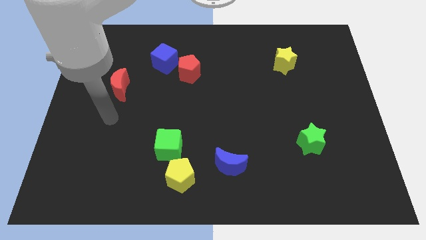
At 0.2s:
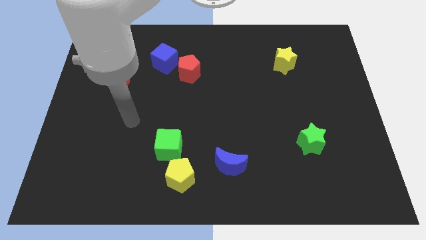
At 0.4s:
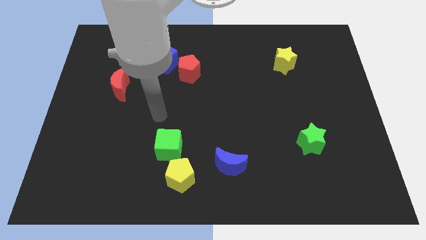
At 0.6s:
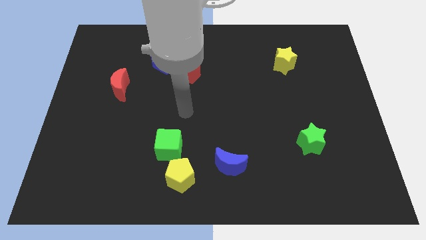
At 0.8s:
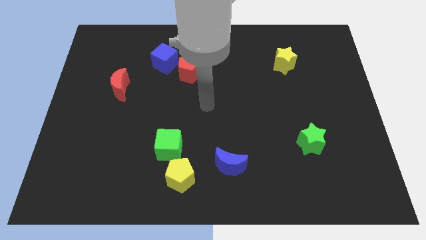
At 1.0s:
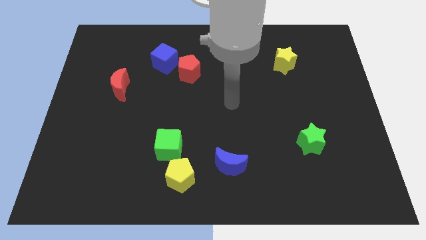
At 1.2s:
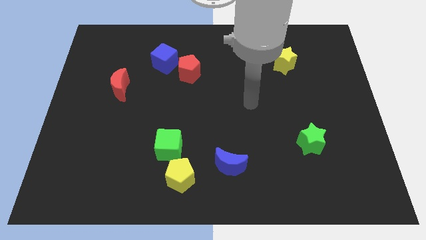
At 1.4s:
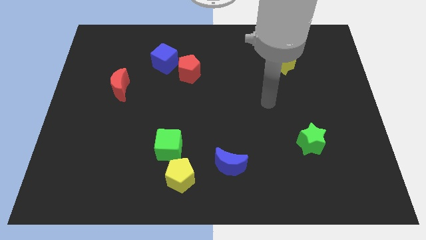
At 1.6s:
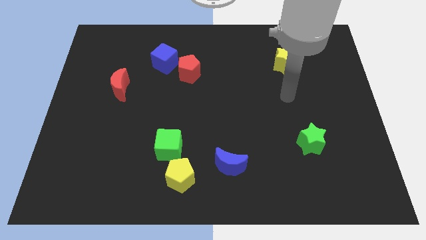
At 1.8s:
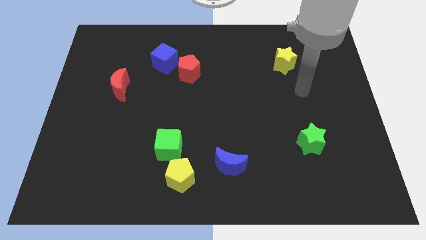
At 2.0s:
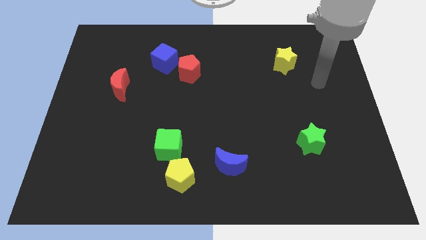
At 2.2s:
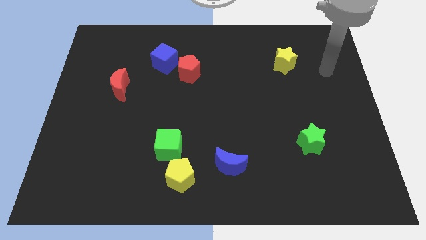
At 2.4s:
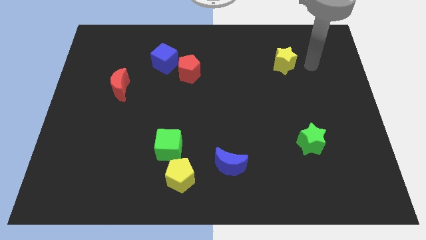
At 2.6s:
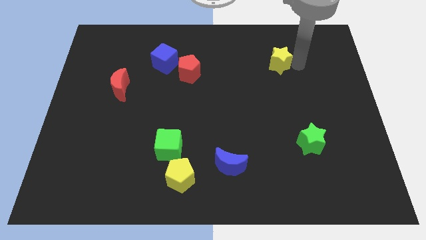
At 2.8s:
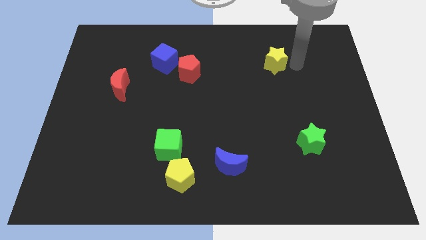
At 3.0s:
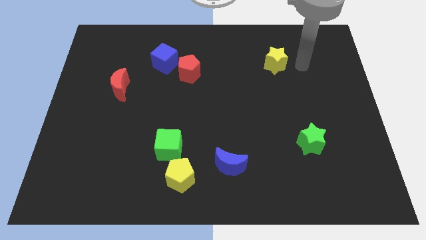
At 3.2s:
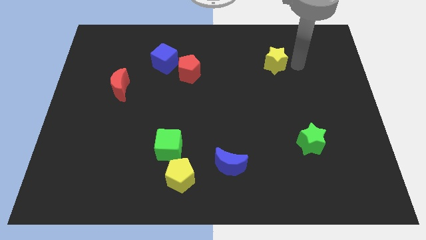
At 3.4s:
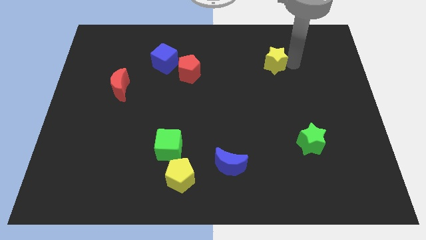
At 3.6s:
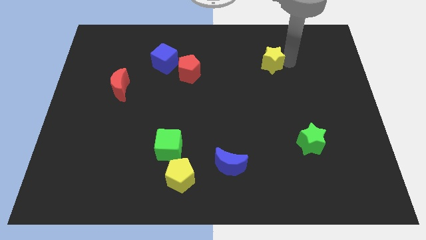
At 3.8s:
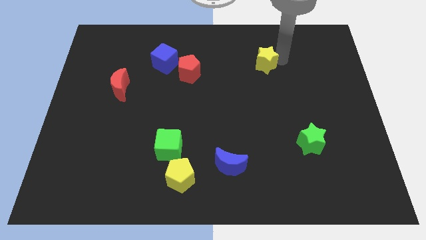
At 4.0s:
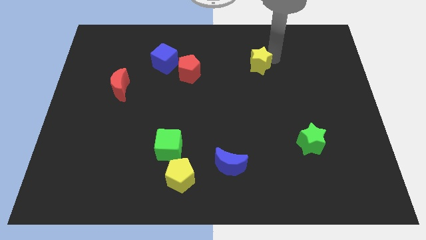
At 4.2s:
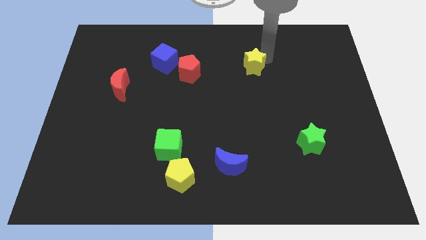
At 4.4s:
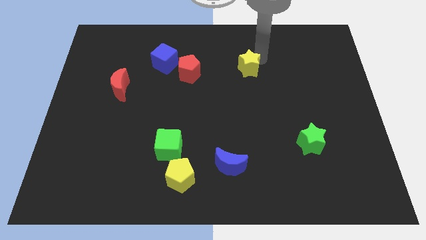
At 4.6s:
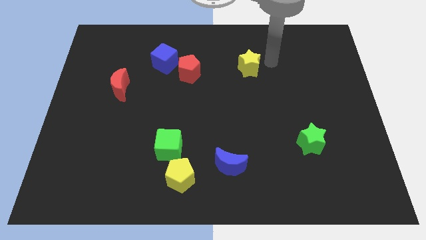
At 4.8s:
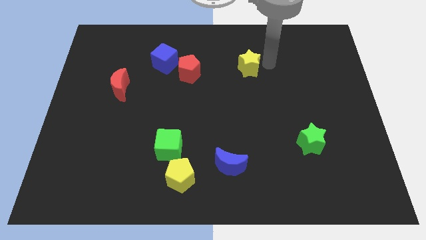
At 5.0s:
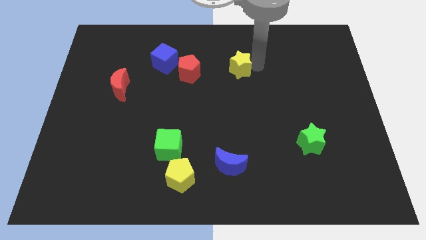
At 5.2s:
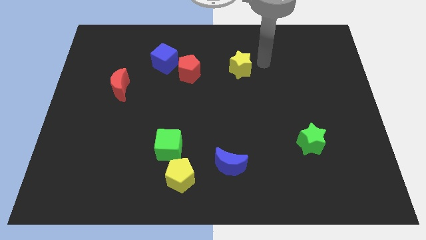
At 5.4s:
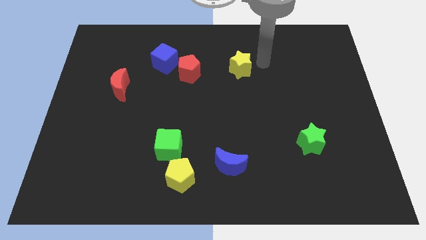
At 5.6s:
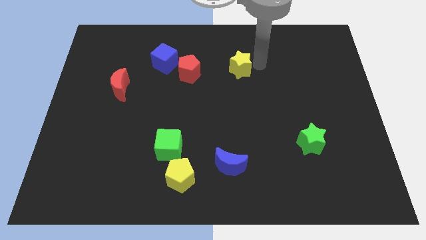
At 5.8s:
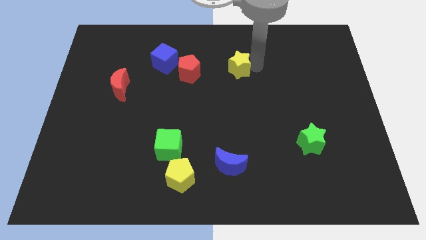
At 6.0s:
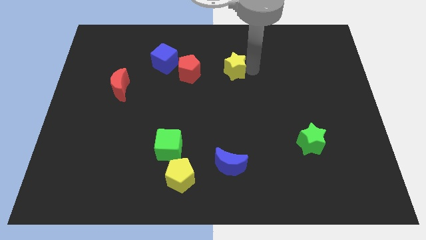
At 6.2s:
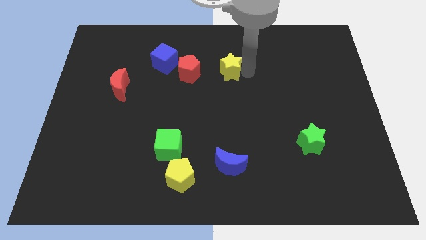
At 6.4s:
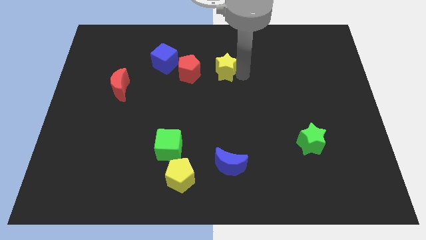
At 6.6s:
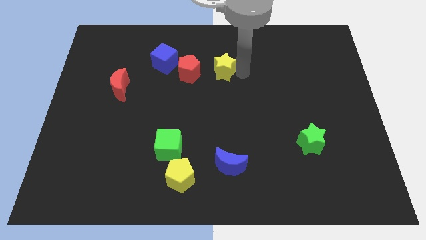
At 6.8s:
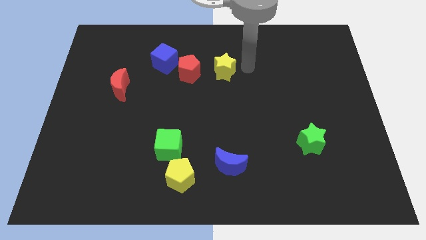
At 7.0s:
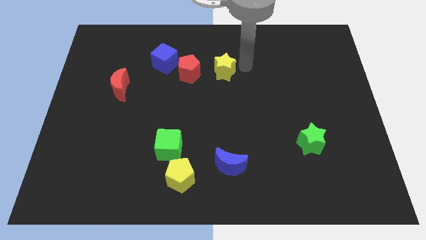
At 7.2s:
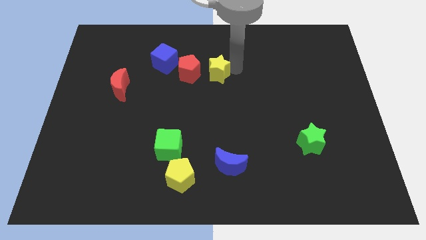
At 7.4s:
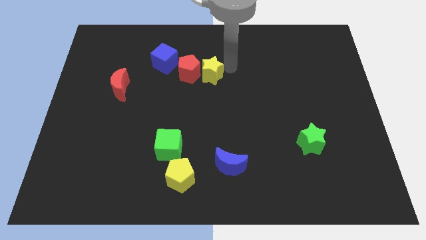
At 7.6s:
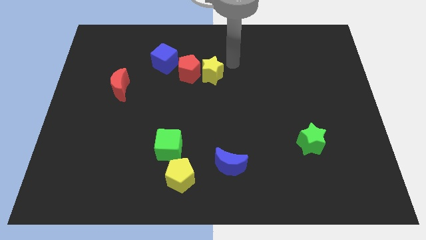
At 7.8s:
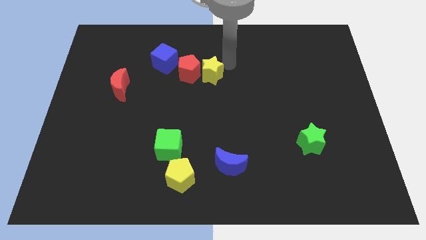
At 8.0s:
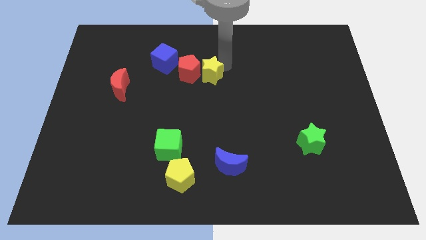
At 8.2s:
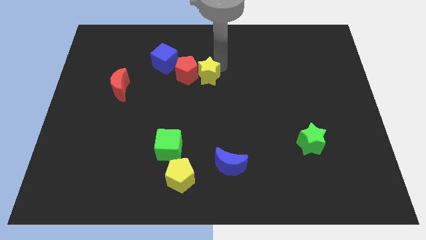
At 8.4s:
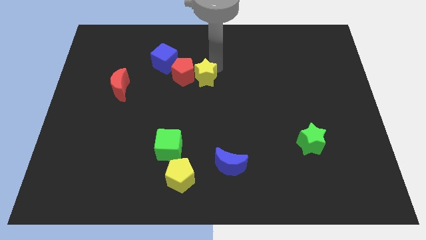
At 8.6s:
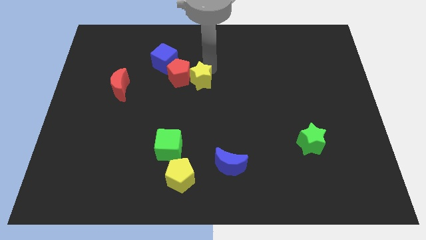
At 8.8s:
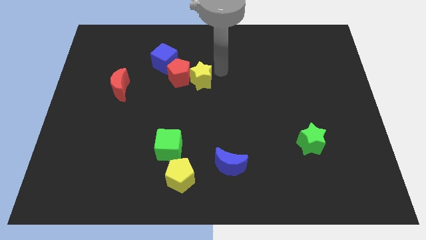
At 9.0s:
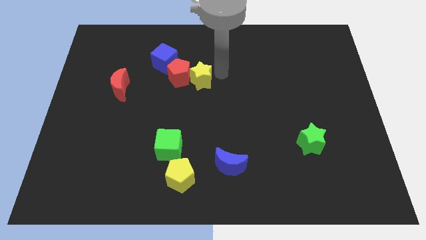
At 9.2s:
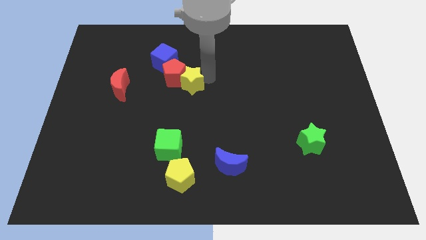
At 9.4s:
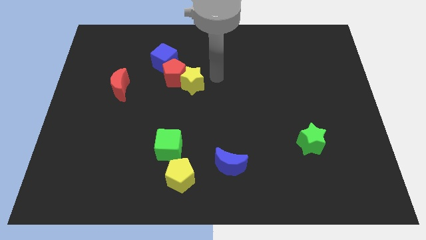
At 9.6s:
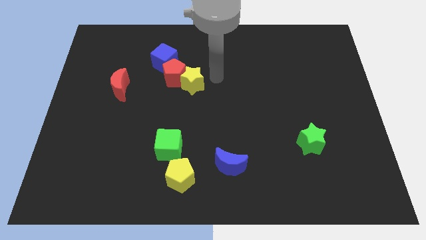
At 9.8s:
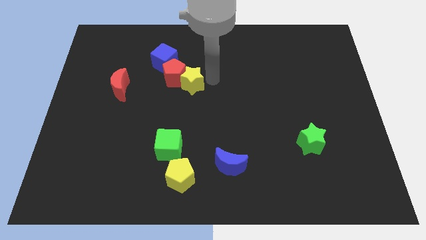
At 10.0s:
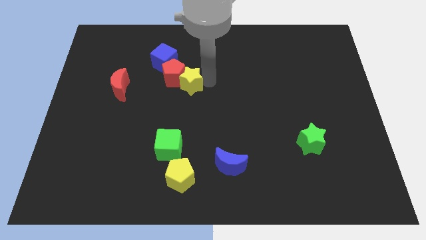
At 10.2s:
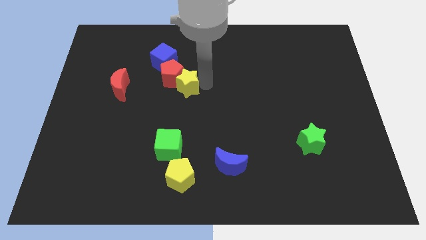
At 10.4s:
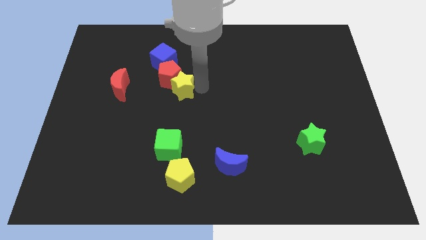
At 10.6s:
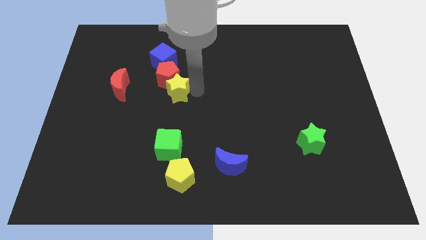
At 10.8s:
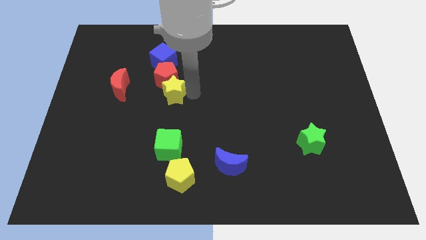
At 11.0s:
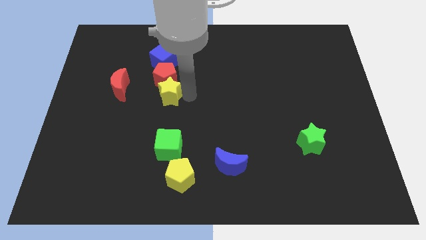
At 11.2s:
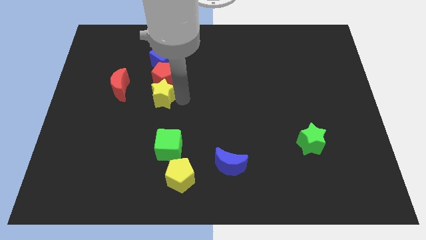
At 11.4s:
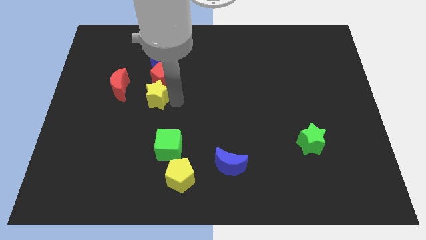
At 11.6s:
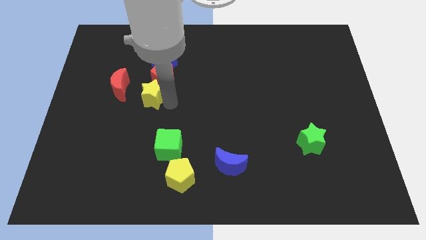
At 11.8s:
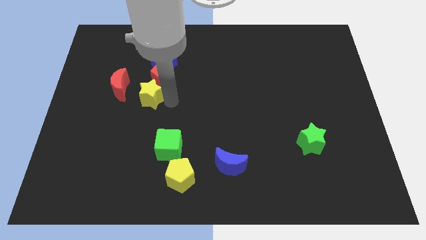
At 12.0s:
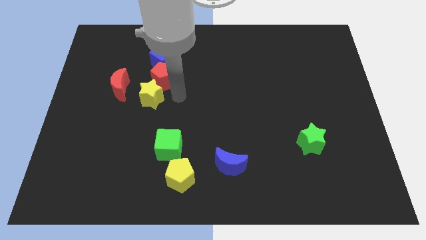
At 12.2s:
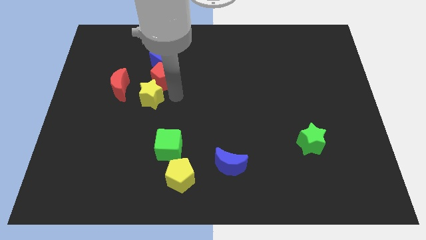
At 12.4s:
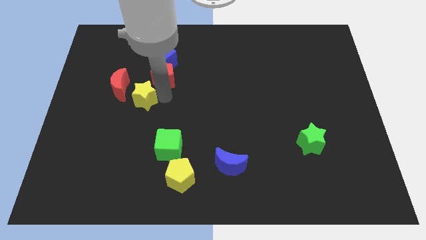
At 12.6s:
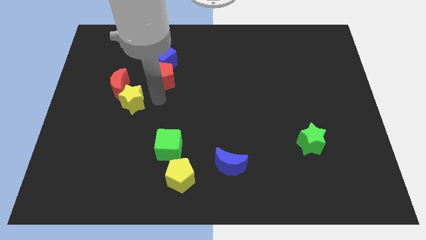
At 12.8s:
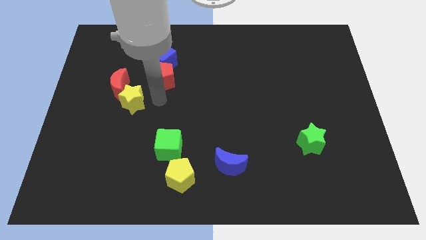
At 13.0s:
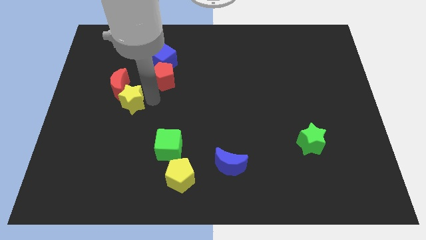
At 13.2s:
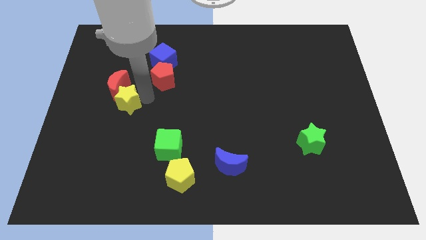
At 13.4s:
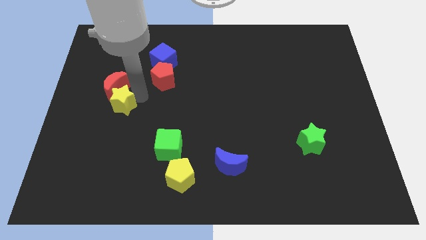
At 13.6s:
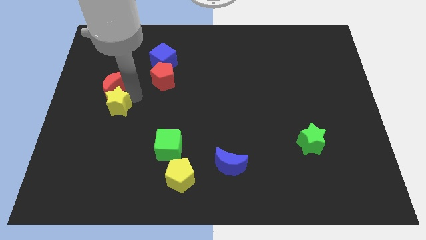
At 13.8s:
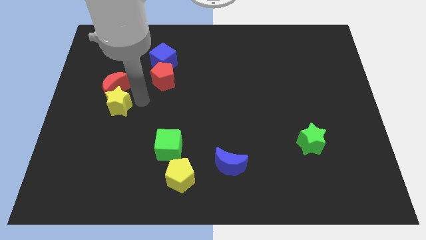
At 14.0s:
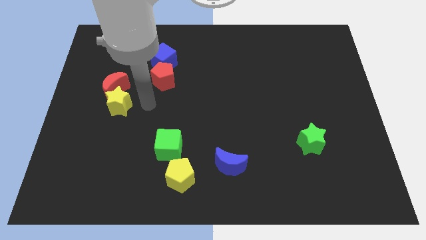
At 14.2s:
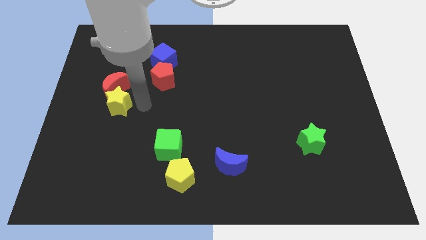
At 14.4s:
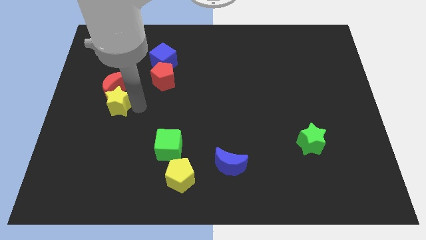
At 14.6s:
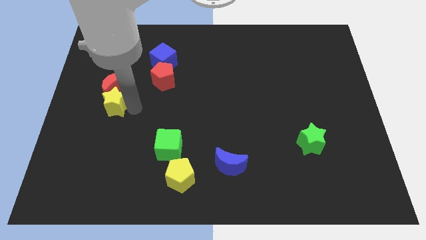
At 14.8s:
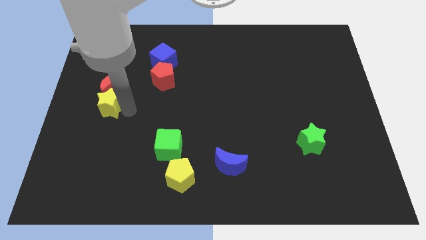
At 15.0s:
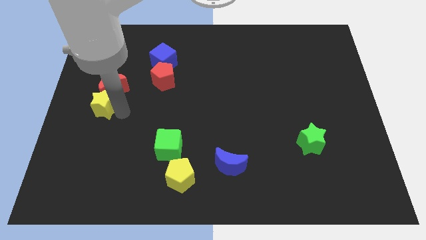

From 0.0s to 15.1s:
put the yellow star to the center left

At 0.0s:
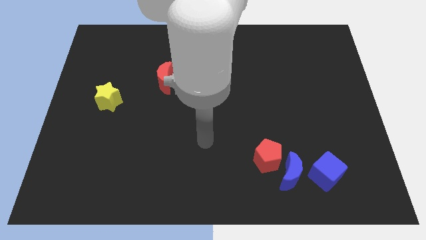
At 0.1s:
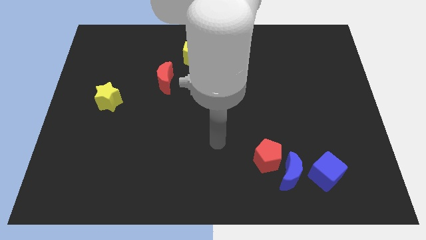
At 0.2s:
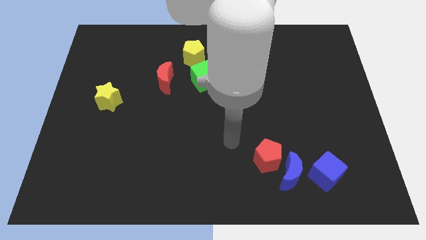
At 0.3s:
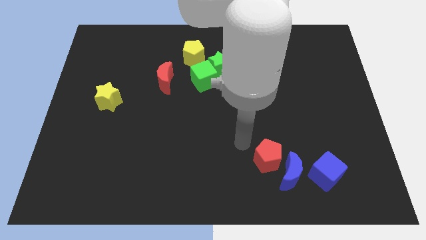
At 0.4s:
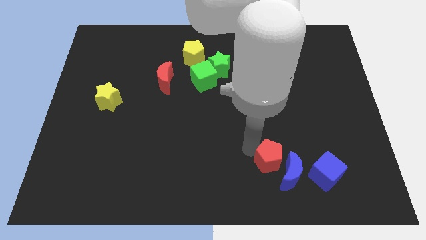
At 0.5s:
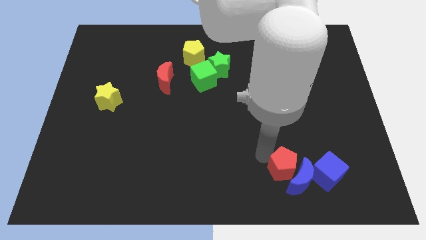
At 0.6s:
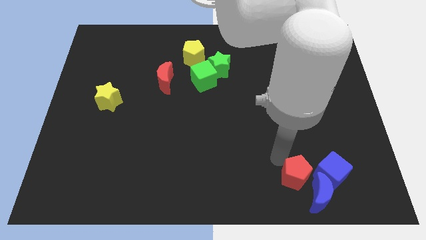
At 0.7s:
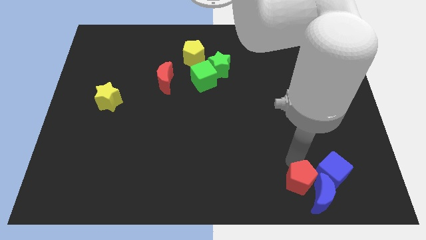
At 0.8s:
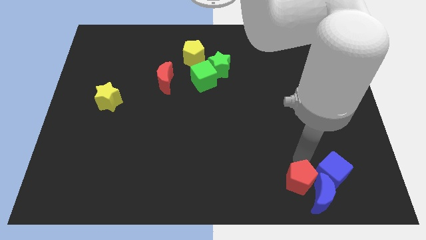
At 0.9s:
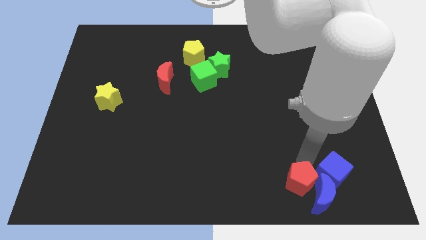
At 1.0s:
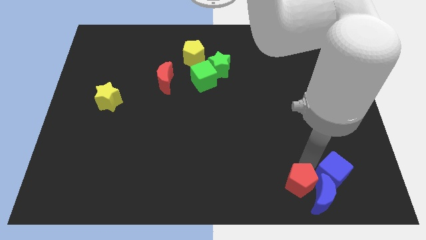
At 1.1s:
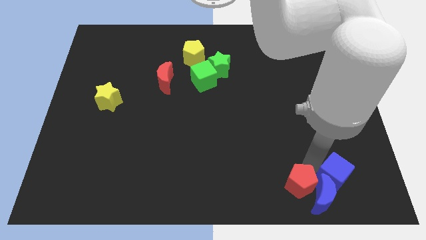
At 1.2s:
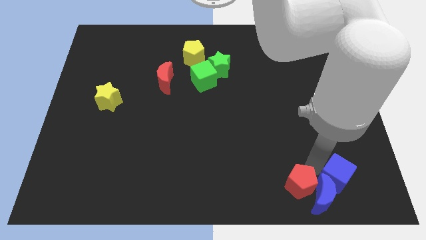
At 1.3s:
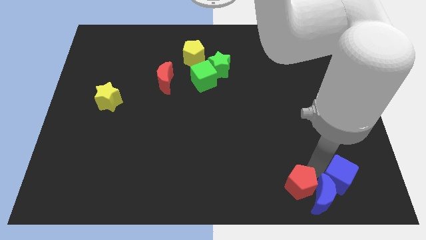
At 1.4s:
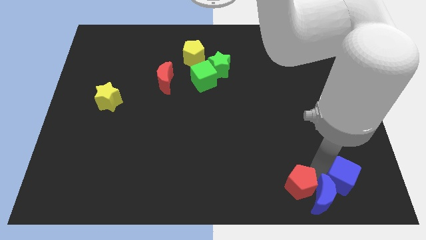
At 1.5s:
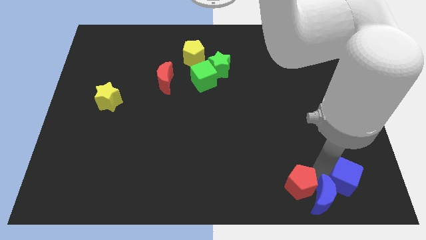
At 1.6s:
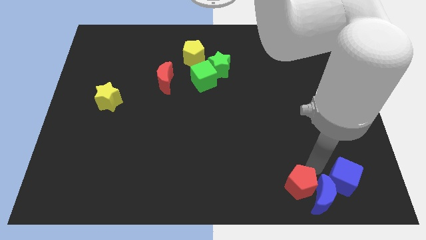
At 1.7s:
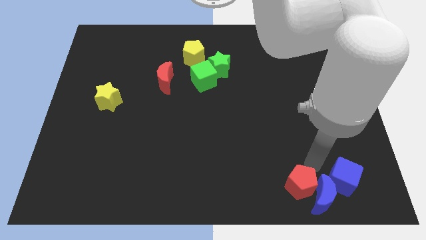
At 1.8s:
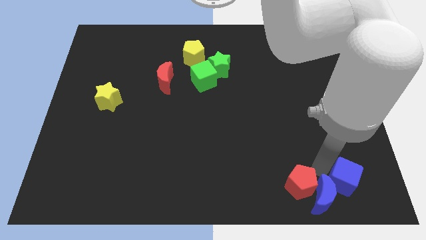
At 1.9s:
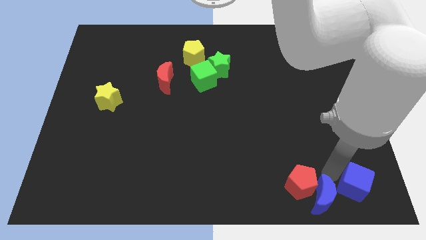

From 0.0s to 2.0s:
push the blue cube to the lower right corner
